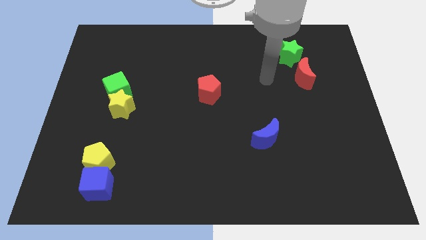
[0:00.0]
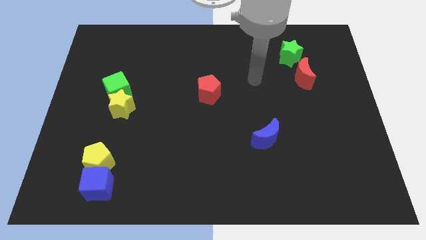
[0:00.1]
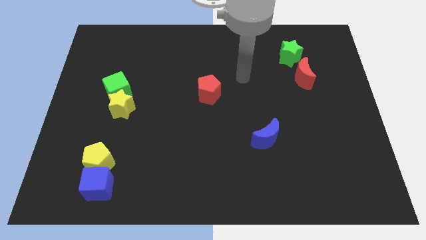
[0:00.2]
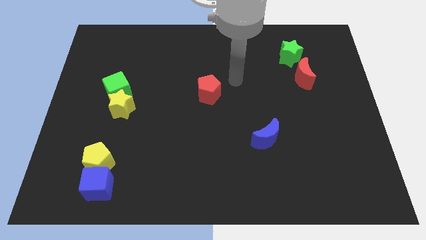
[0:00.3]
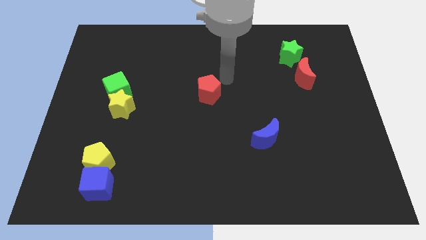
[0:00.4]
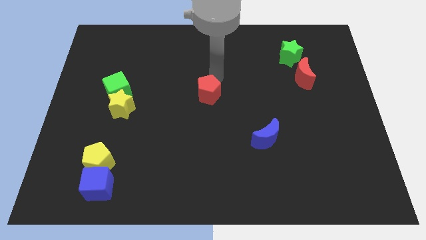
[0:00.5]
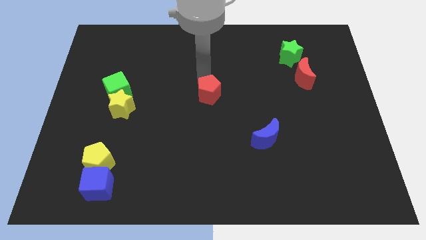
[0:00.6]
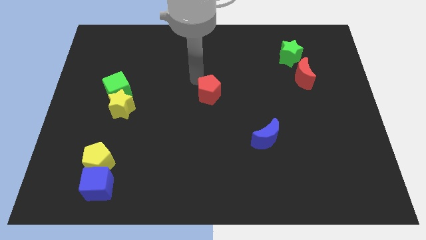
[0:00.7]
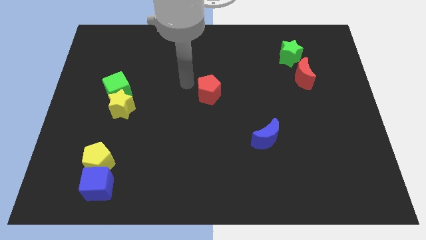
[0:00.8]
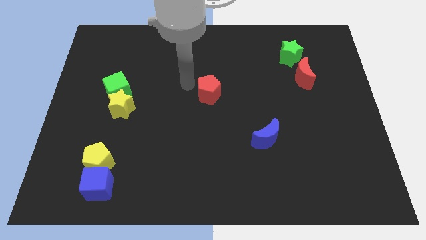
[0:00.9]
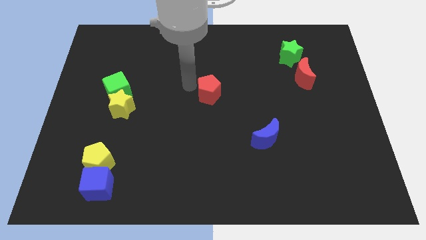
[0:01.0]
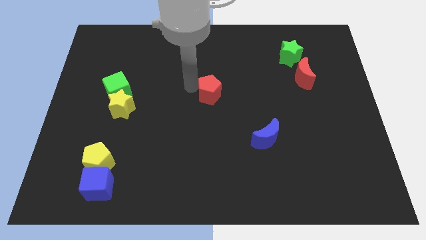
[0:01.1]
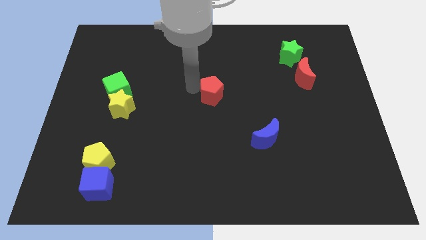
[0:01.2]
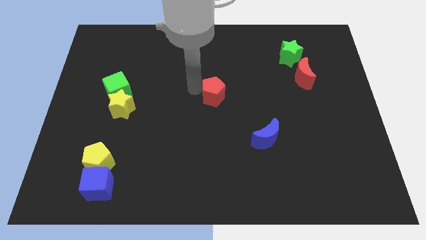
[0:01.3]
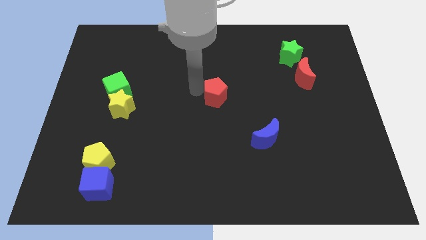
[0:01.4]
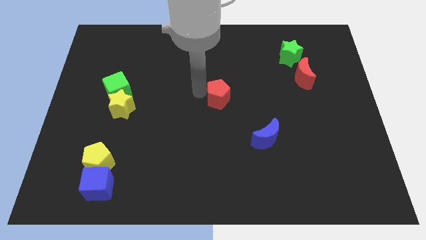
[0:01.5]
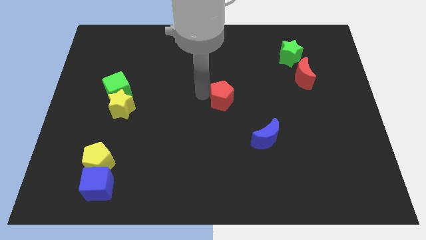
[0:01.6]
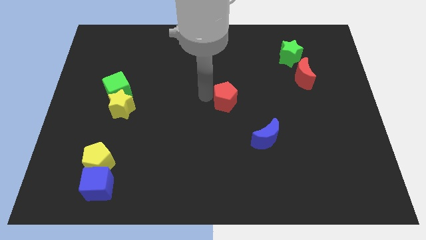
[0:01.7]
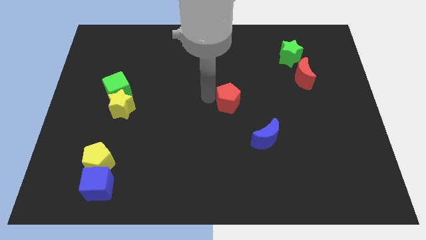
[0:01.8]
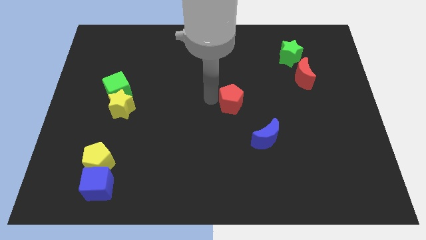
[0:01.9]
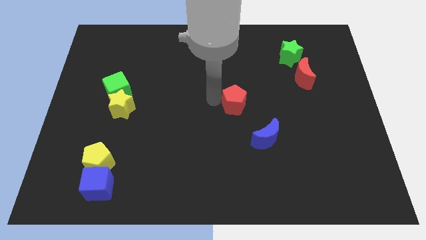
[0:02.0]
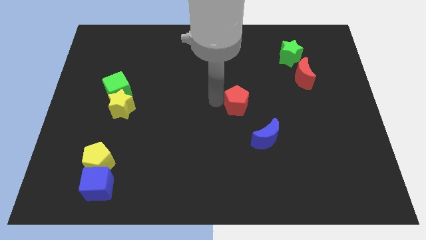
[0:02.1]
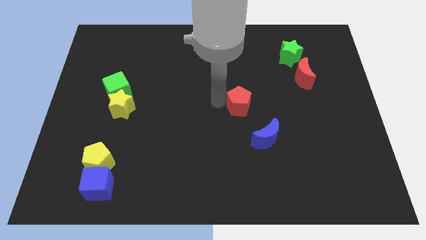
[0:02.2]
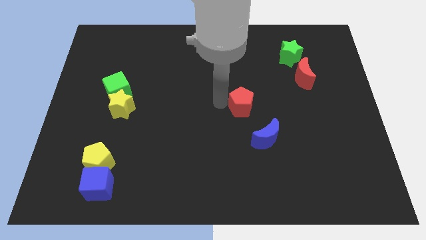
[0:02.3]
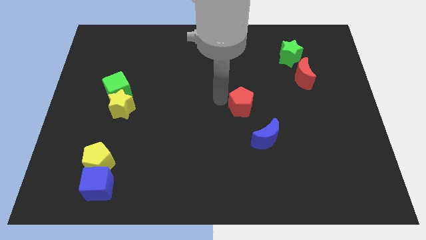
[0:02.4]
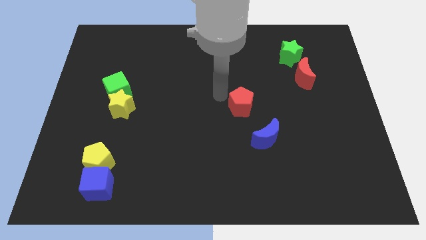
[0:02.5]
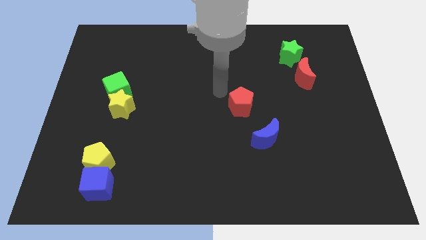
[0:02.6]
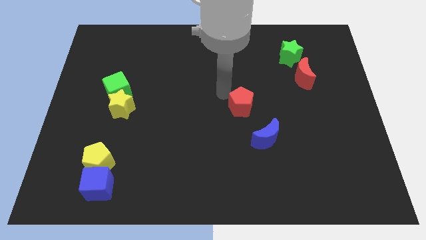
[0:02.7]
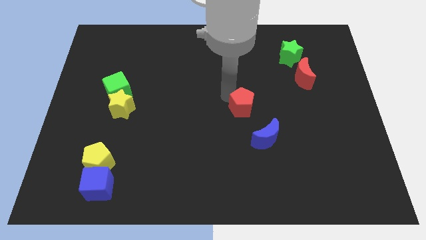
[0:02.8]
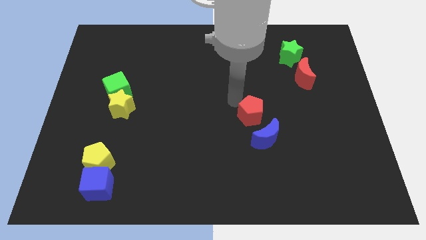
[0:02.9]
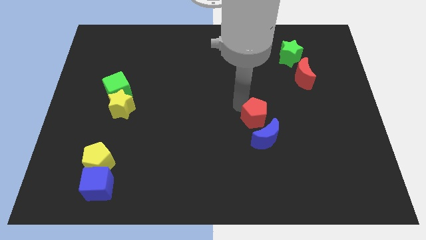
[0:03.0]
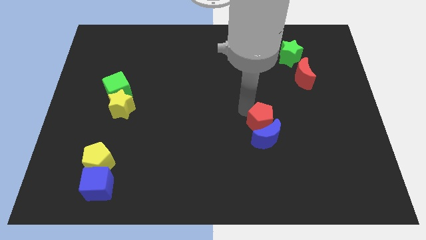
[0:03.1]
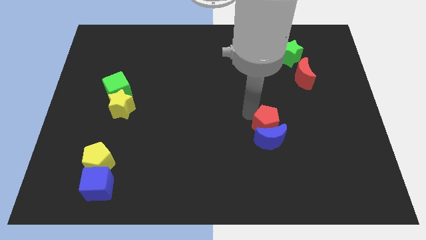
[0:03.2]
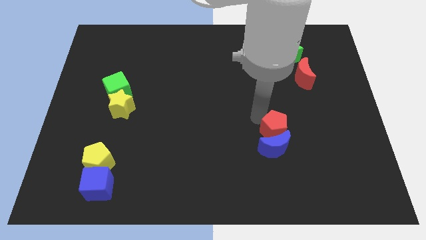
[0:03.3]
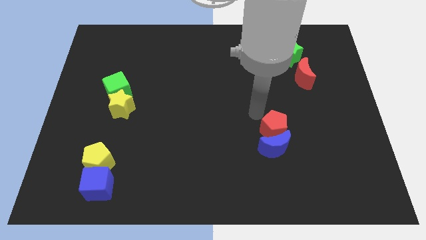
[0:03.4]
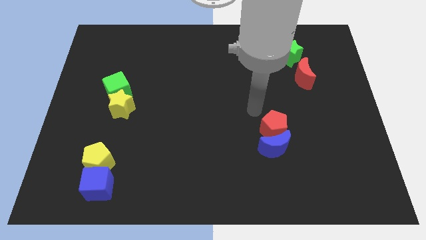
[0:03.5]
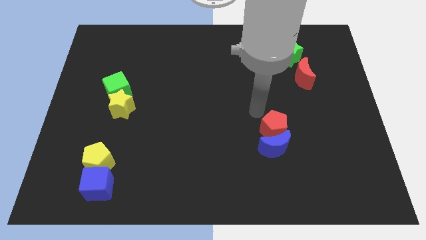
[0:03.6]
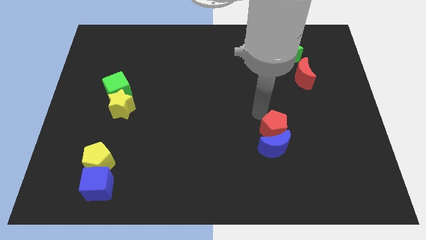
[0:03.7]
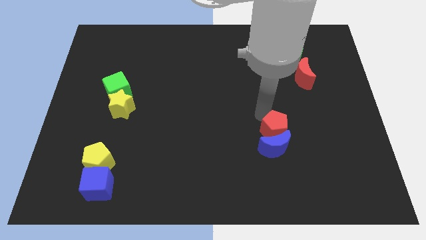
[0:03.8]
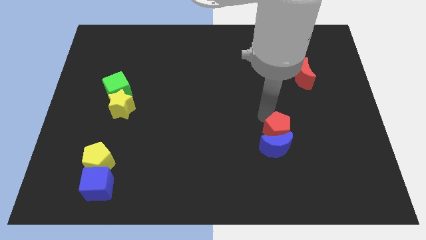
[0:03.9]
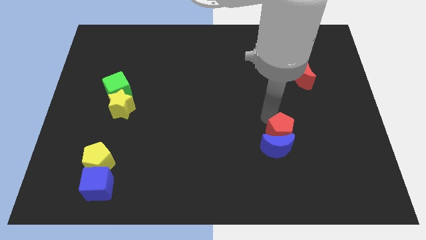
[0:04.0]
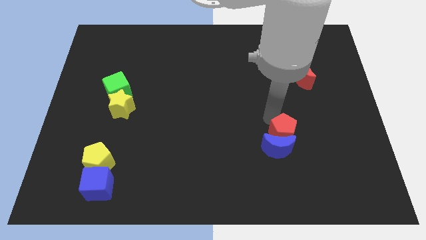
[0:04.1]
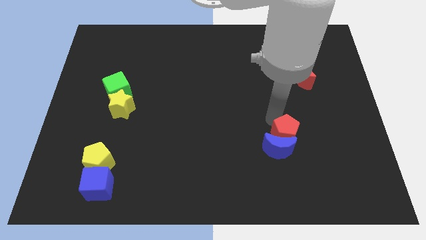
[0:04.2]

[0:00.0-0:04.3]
slide the red pentagon diagonally down and right

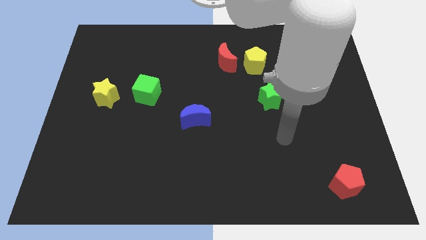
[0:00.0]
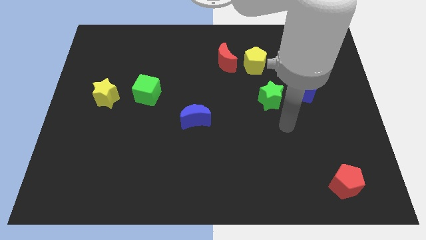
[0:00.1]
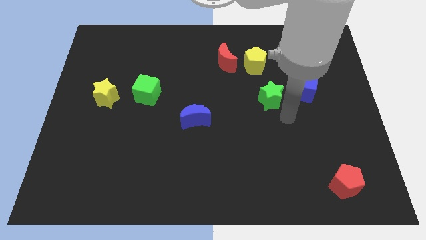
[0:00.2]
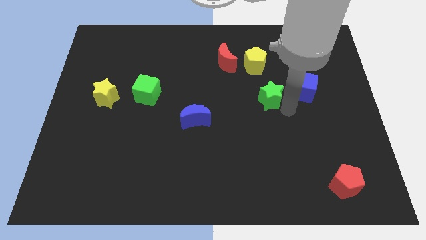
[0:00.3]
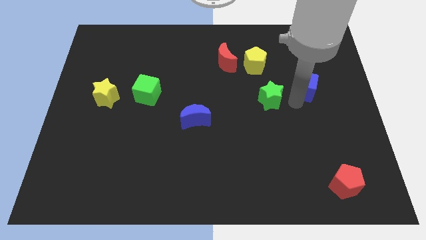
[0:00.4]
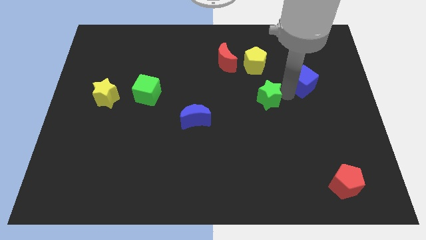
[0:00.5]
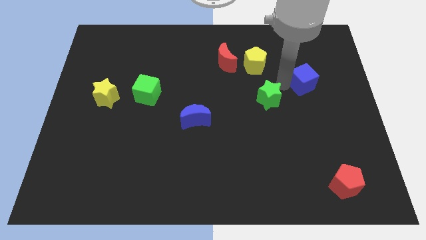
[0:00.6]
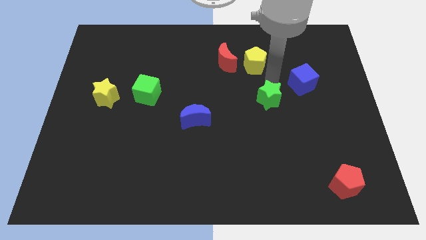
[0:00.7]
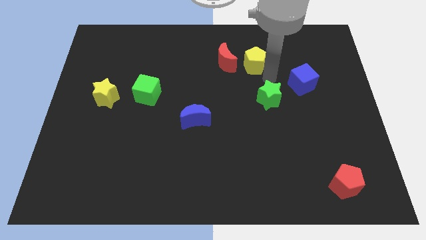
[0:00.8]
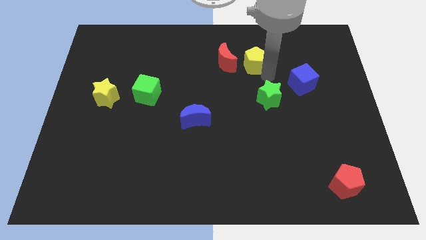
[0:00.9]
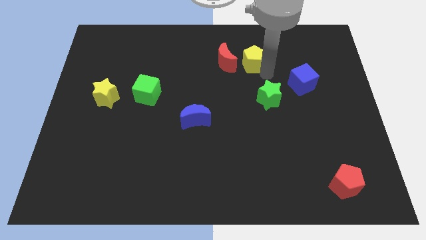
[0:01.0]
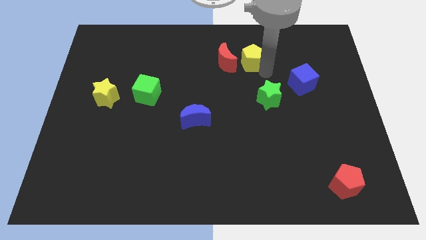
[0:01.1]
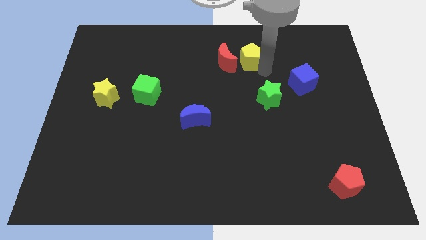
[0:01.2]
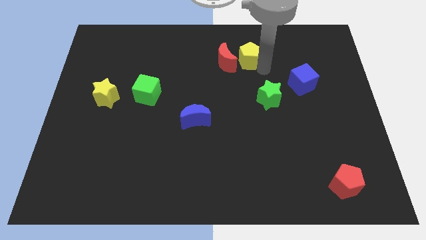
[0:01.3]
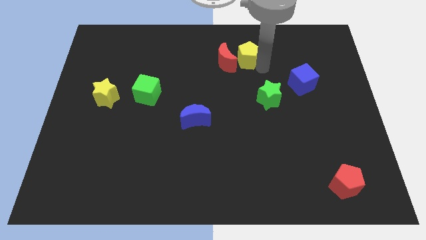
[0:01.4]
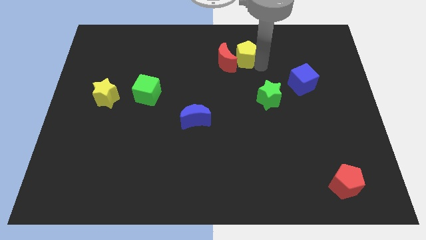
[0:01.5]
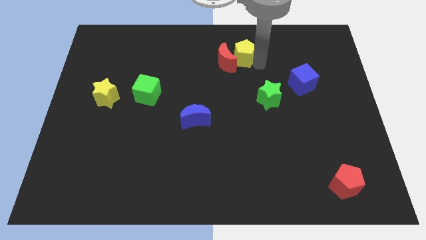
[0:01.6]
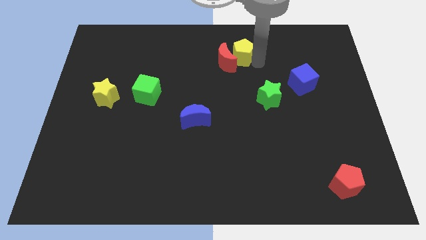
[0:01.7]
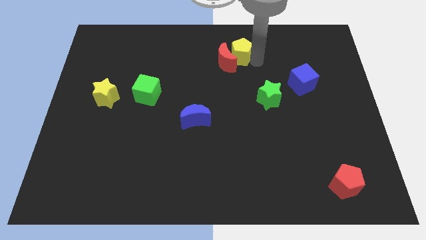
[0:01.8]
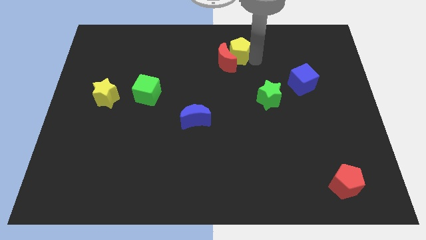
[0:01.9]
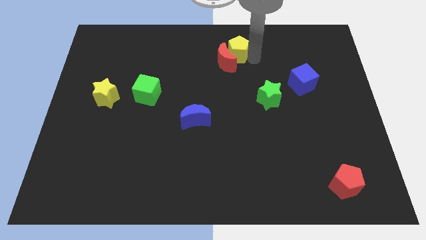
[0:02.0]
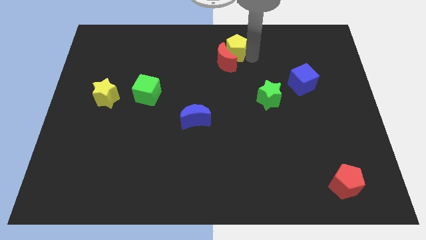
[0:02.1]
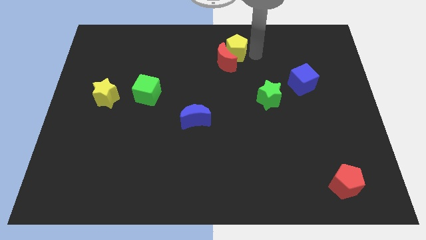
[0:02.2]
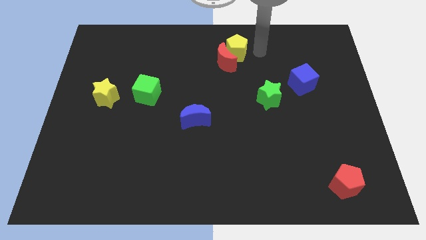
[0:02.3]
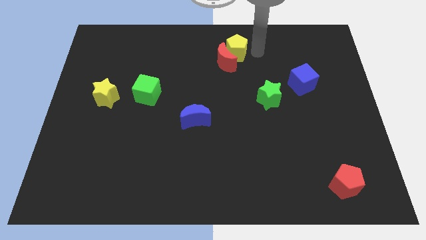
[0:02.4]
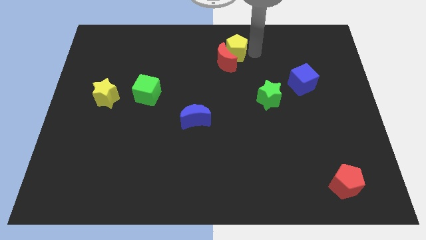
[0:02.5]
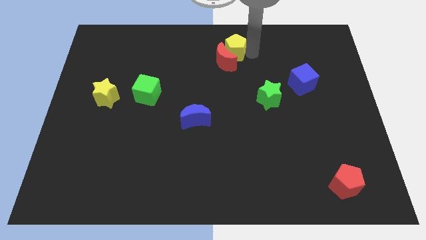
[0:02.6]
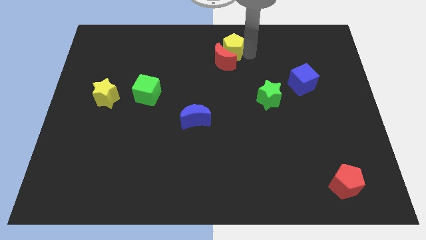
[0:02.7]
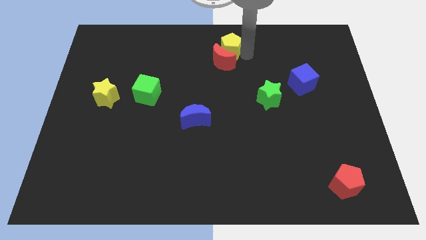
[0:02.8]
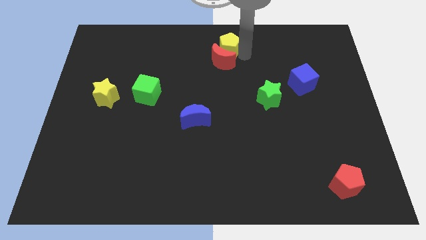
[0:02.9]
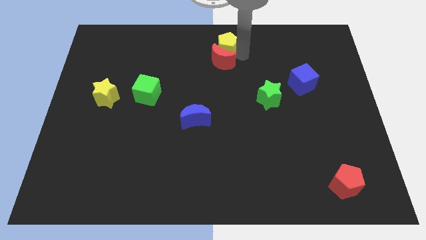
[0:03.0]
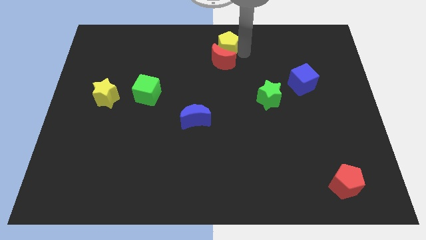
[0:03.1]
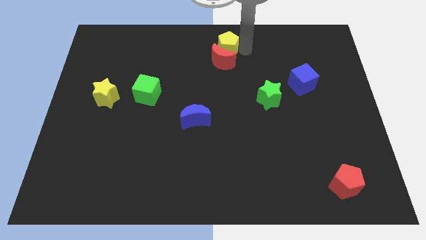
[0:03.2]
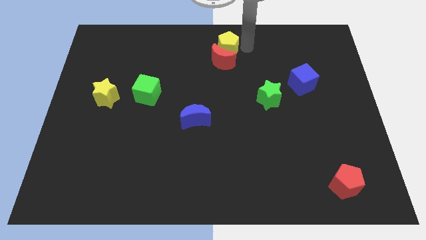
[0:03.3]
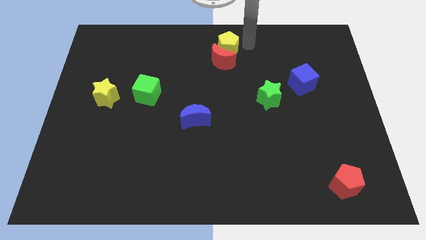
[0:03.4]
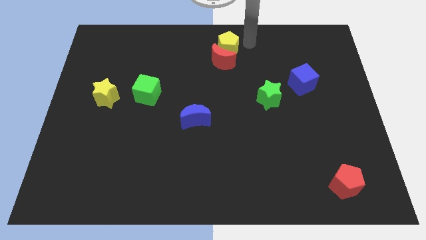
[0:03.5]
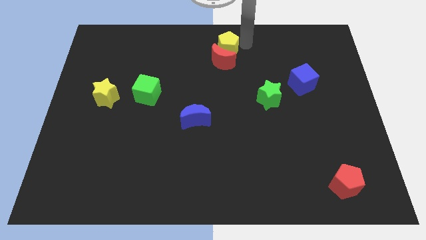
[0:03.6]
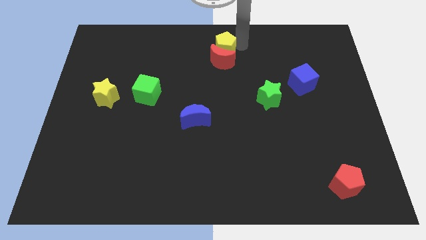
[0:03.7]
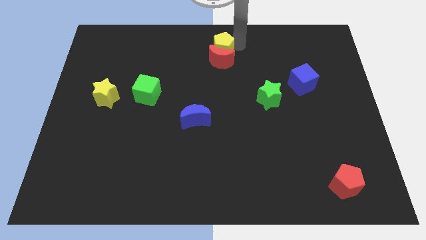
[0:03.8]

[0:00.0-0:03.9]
push the yellow pentagon to the left a little
